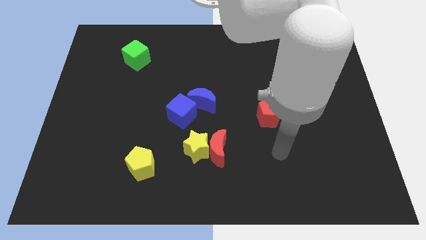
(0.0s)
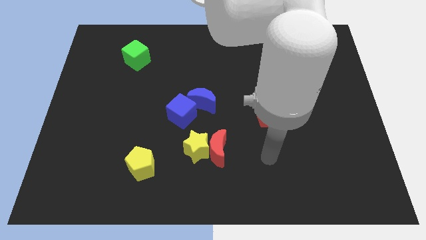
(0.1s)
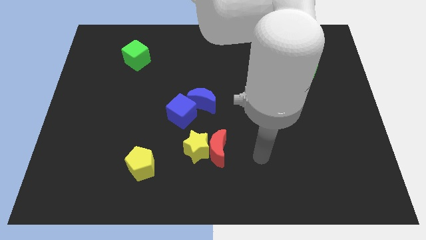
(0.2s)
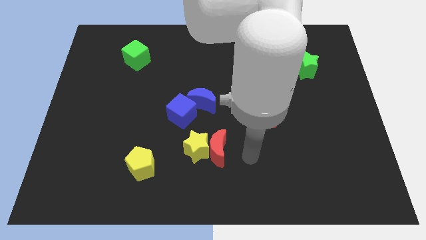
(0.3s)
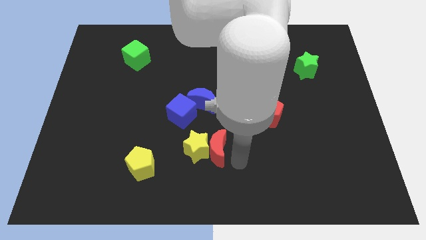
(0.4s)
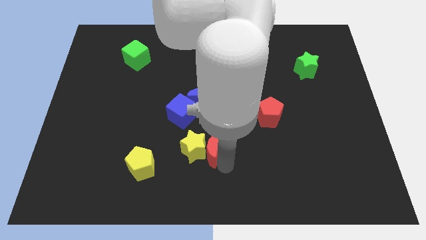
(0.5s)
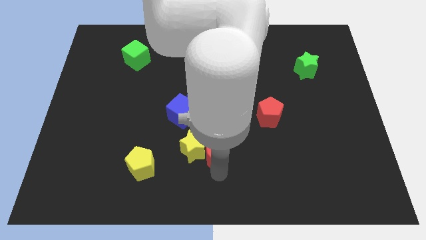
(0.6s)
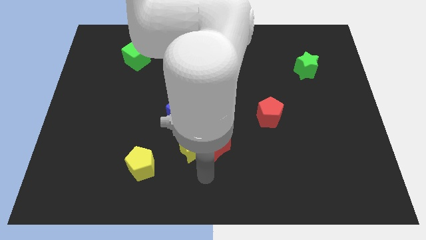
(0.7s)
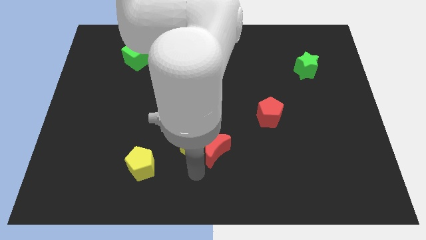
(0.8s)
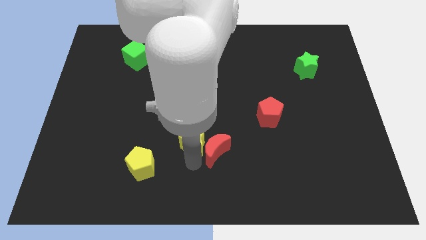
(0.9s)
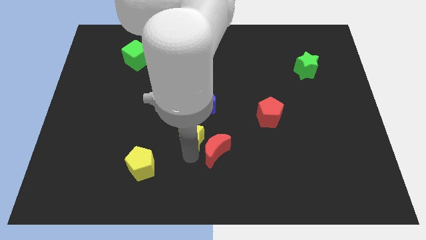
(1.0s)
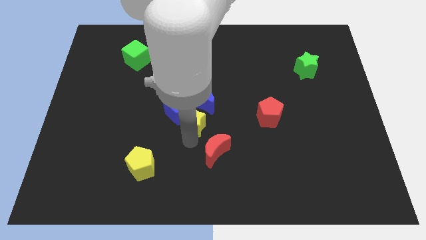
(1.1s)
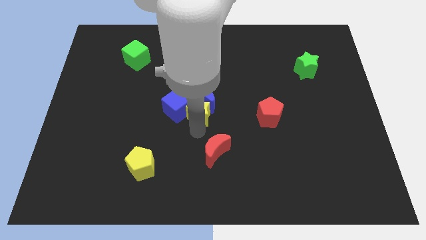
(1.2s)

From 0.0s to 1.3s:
separate the red moon from the yellow star

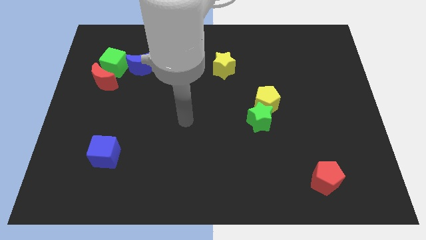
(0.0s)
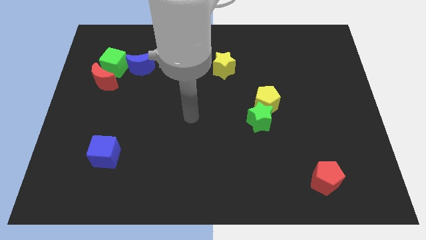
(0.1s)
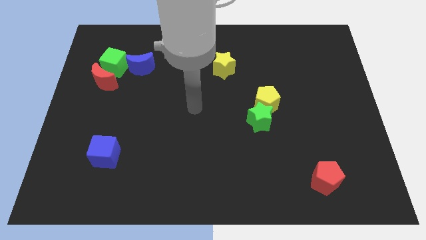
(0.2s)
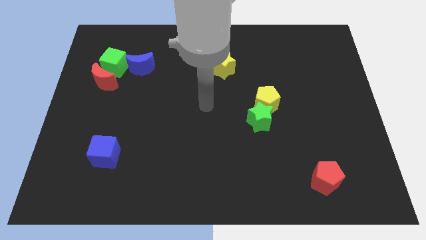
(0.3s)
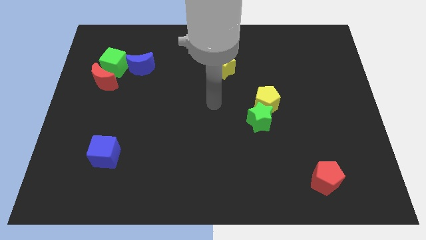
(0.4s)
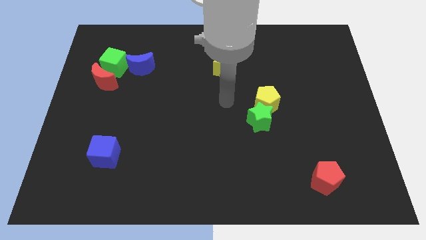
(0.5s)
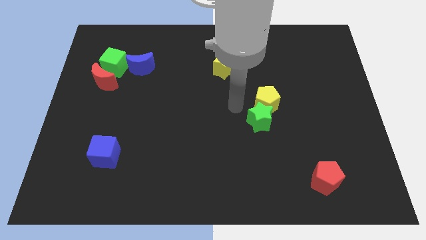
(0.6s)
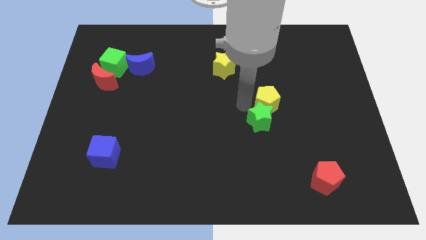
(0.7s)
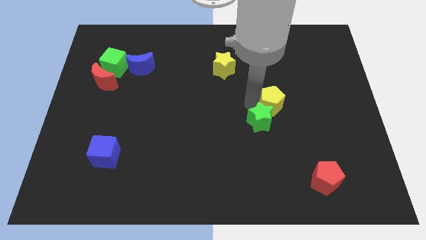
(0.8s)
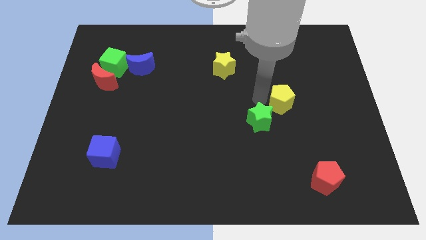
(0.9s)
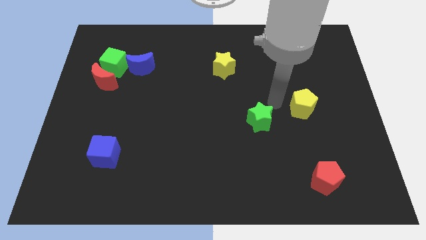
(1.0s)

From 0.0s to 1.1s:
move the green star away from the yellow pentagon

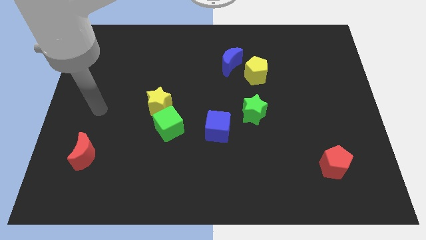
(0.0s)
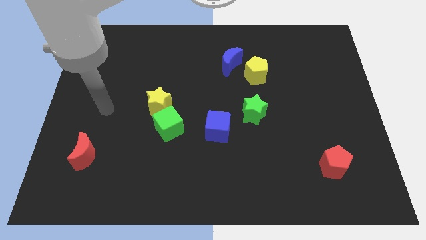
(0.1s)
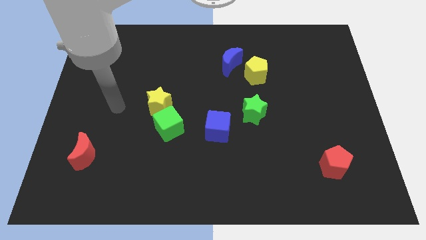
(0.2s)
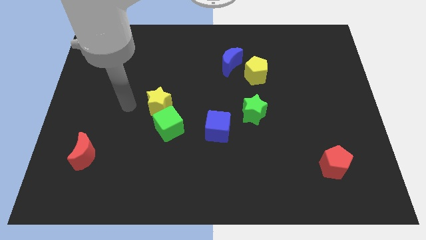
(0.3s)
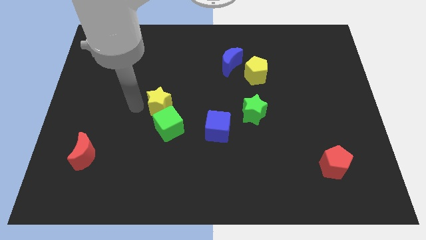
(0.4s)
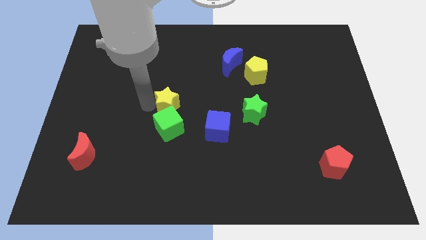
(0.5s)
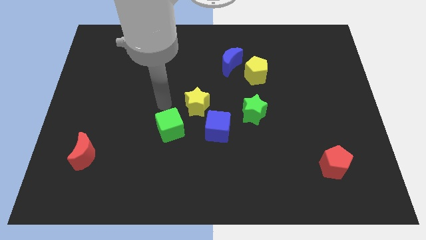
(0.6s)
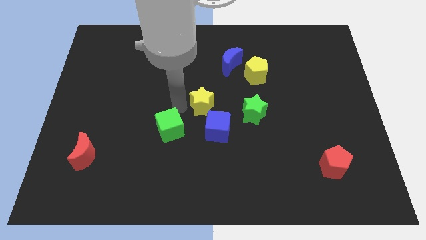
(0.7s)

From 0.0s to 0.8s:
separate the green cube from the yellow star

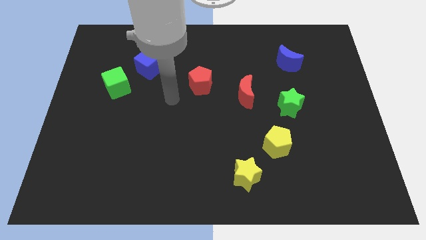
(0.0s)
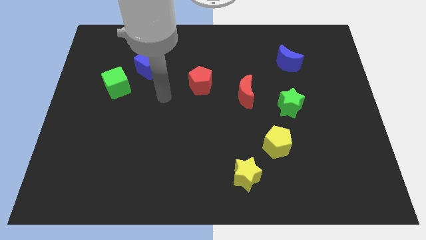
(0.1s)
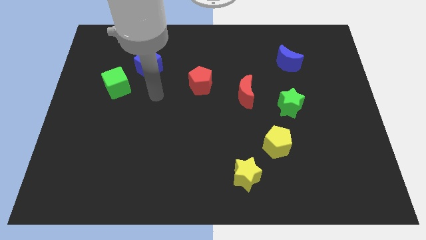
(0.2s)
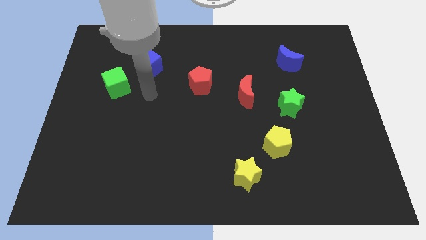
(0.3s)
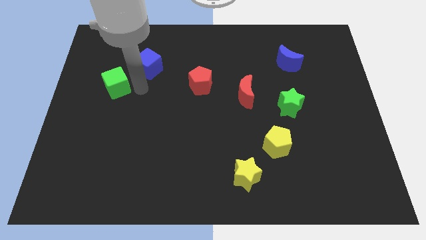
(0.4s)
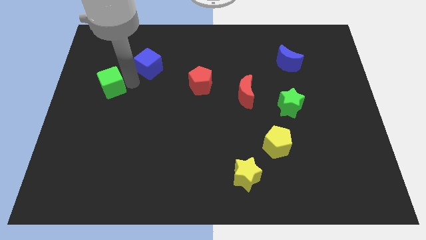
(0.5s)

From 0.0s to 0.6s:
pull the blue cube apart from the green cube

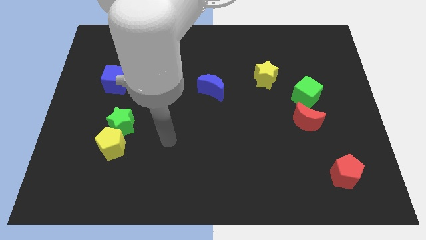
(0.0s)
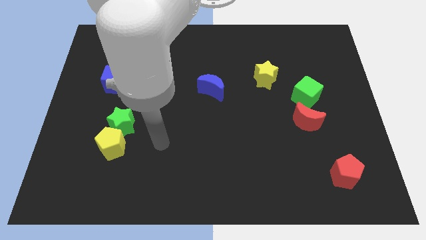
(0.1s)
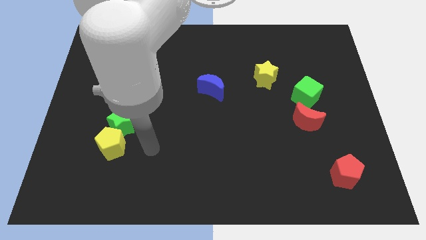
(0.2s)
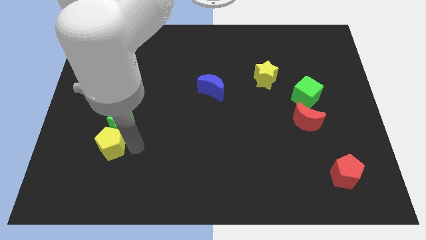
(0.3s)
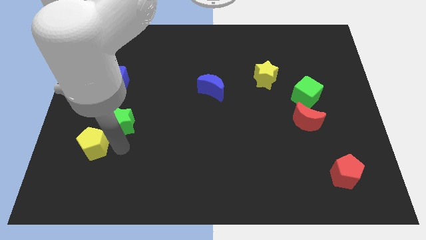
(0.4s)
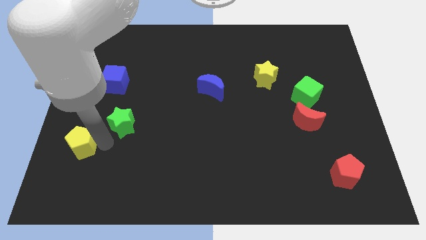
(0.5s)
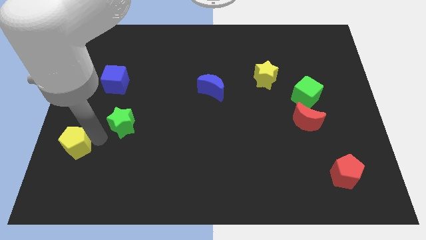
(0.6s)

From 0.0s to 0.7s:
pull the green star apart from the yellow pentagon

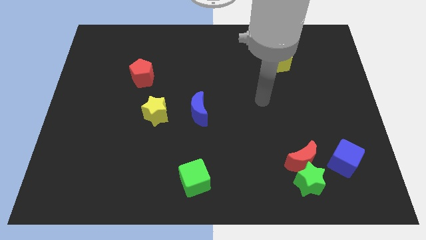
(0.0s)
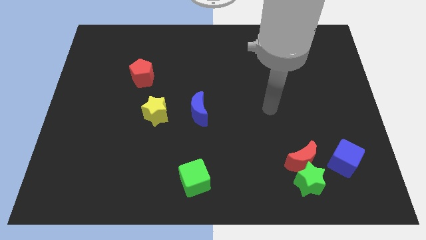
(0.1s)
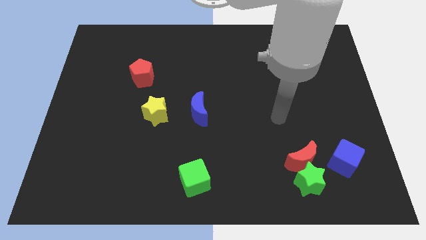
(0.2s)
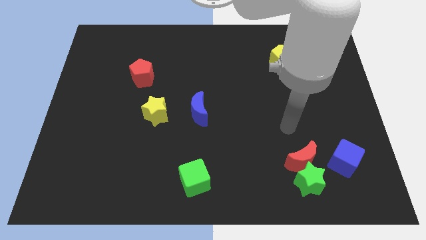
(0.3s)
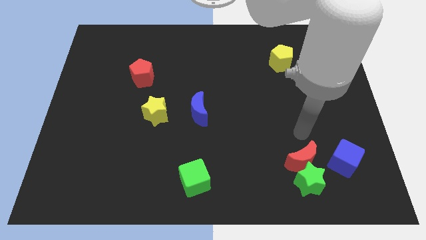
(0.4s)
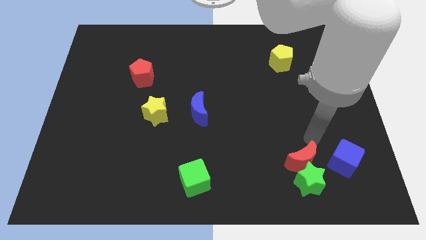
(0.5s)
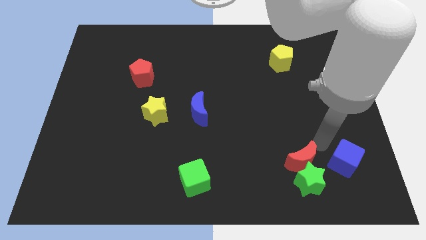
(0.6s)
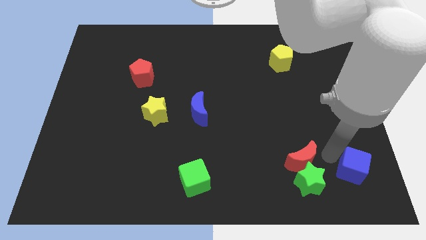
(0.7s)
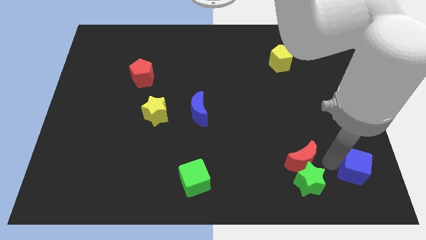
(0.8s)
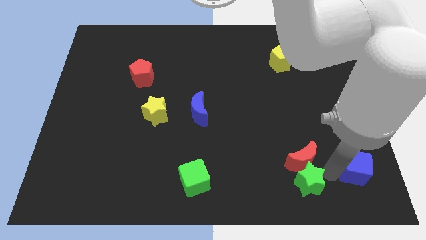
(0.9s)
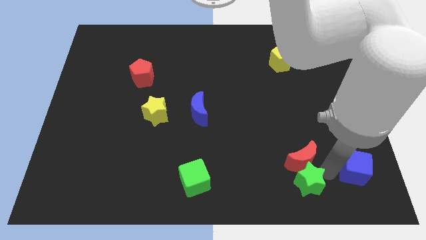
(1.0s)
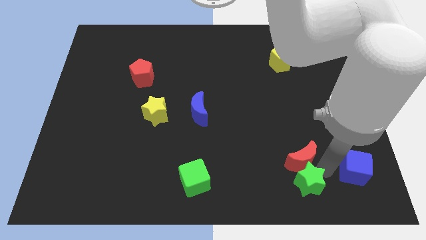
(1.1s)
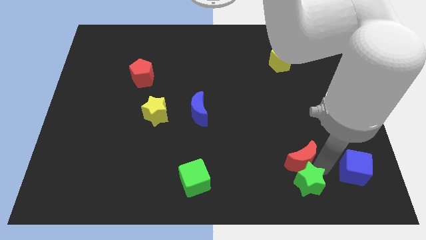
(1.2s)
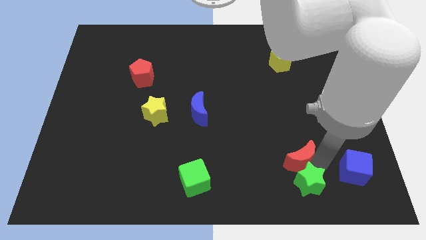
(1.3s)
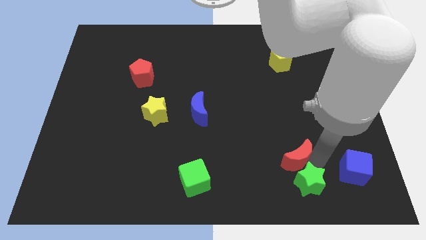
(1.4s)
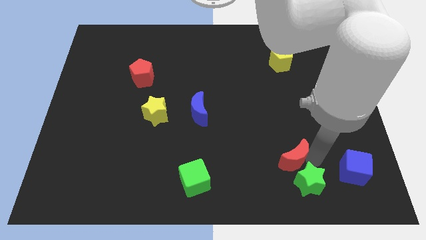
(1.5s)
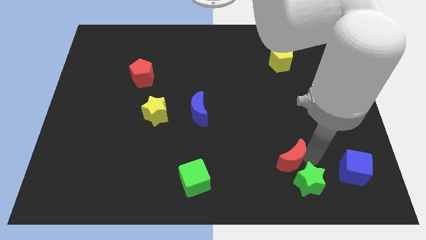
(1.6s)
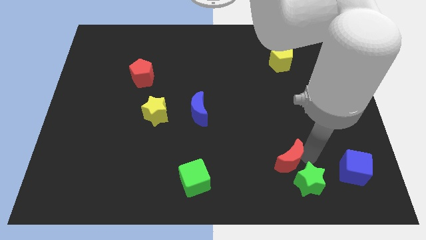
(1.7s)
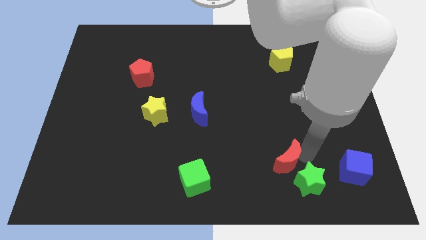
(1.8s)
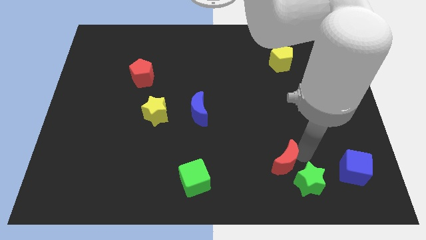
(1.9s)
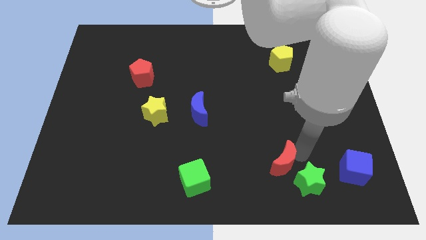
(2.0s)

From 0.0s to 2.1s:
separate the red moon from the green star and blue cube

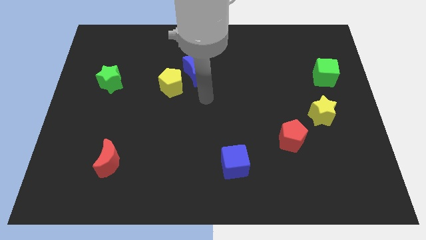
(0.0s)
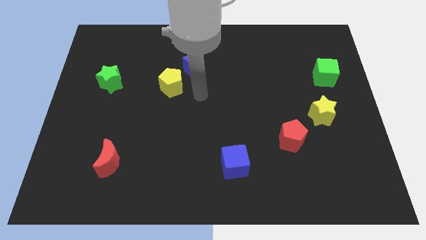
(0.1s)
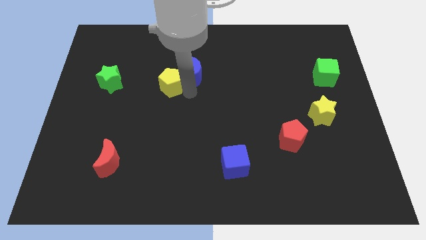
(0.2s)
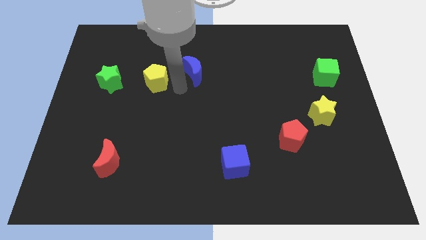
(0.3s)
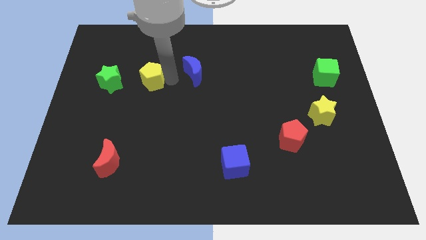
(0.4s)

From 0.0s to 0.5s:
separate the blue moon from the yellow pentagon

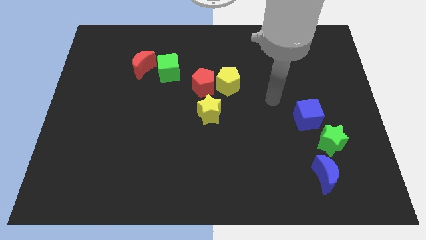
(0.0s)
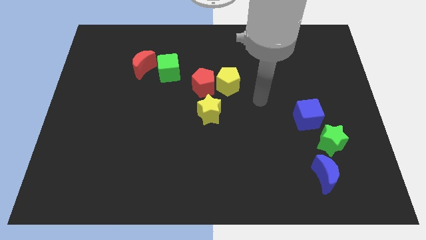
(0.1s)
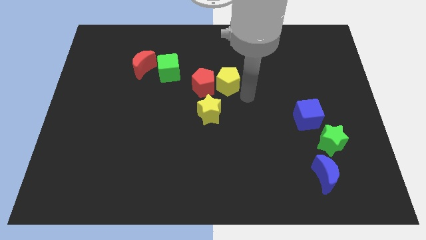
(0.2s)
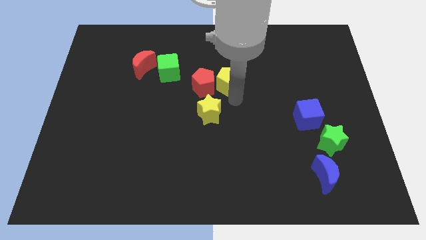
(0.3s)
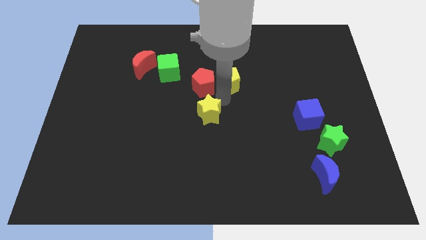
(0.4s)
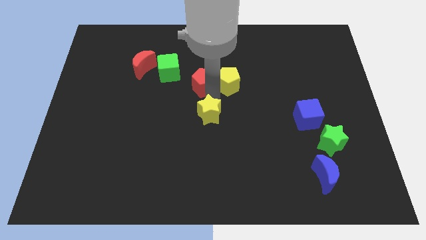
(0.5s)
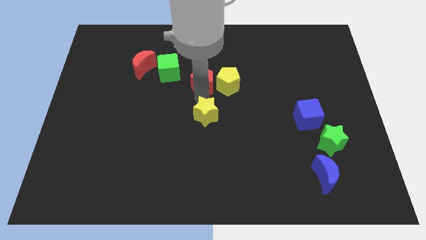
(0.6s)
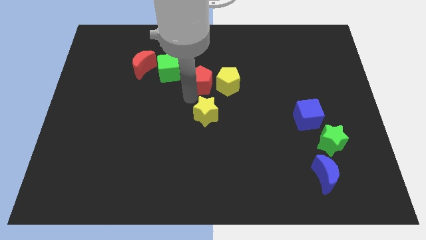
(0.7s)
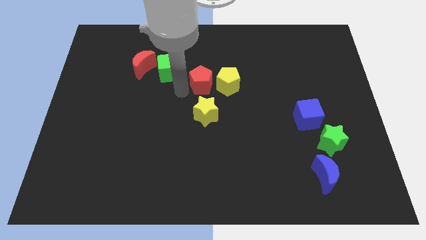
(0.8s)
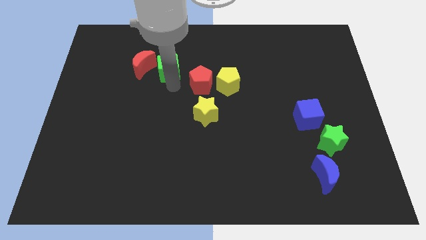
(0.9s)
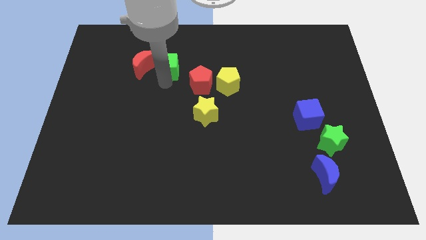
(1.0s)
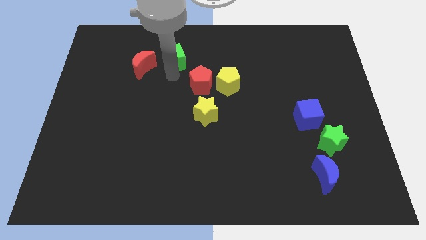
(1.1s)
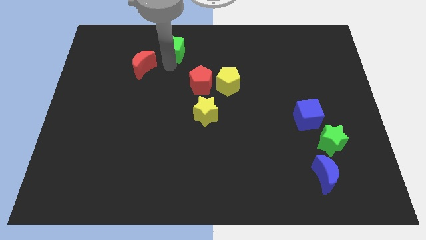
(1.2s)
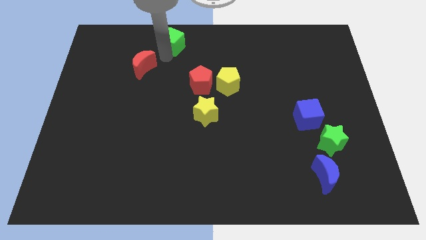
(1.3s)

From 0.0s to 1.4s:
separate the red moon from the green cube

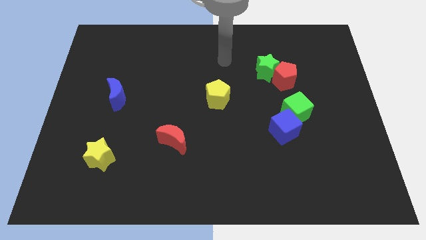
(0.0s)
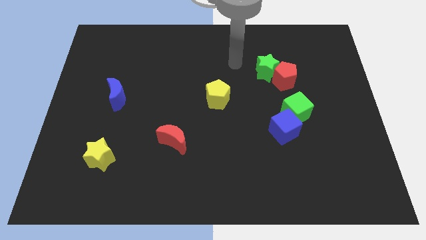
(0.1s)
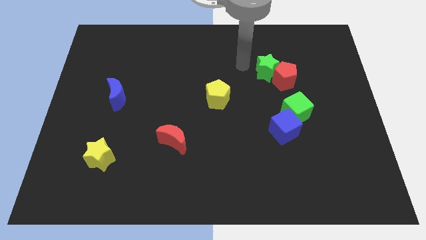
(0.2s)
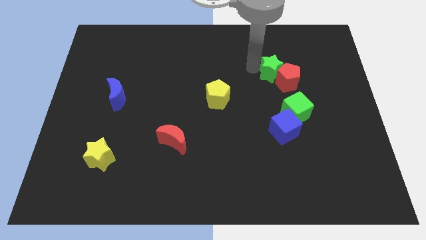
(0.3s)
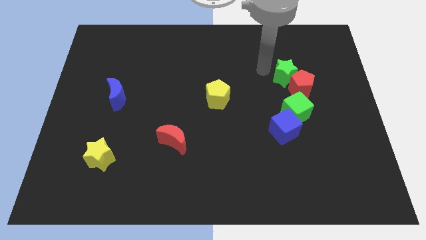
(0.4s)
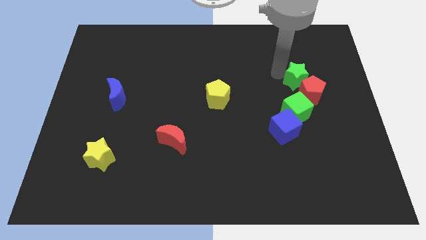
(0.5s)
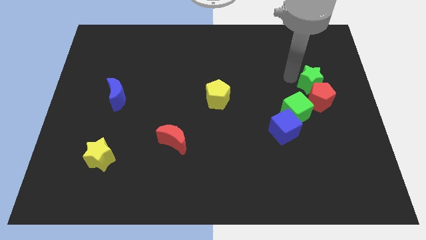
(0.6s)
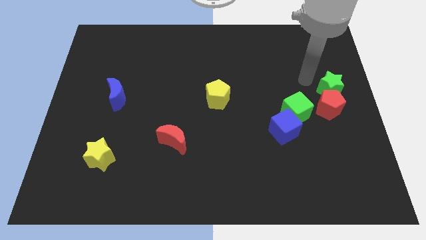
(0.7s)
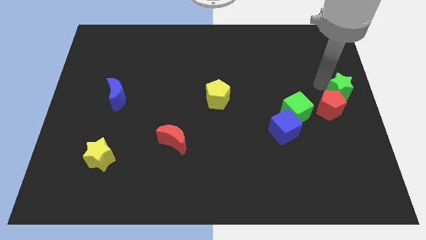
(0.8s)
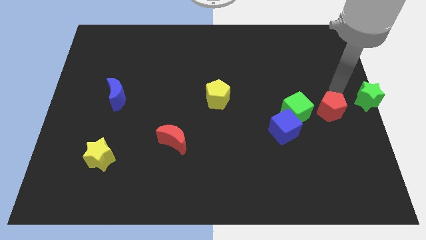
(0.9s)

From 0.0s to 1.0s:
pull the red pentagon apart from the green star
